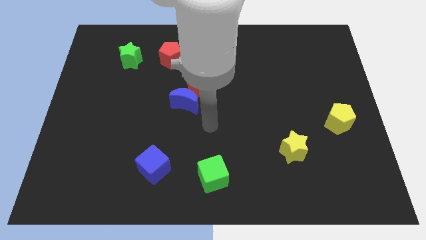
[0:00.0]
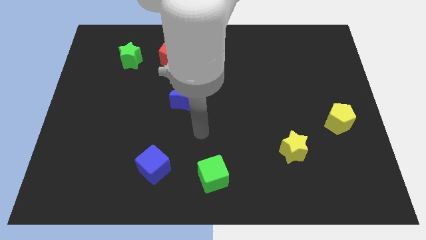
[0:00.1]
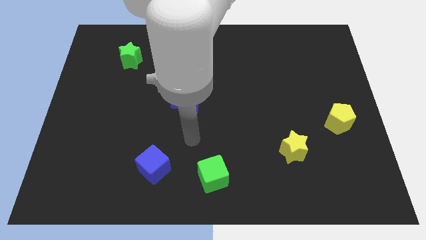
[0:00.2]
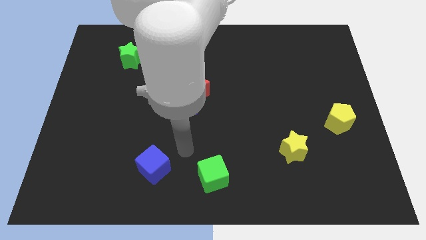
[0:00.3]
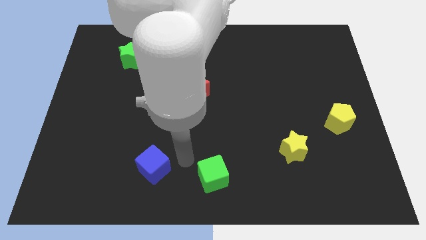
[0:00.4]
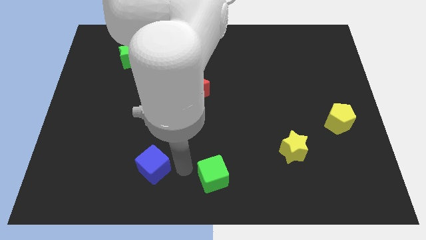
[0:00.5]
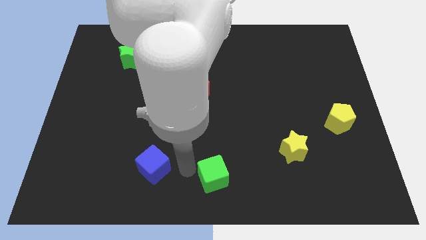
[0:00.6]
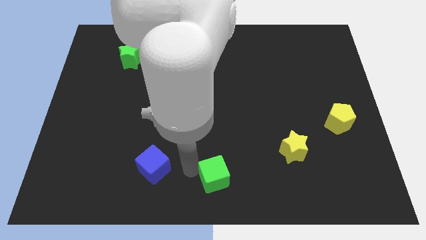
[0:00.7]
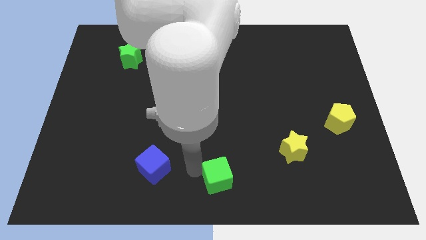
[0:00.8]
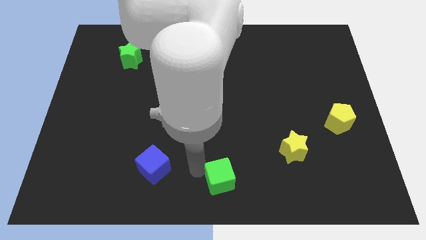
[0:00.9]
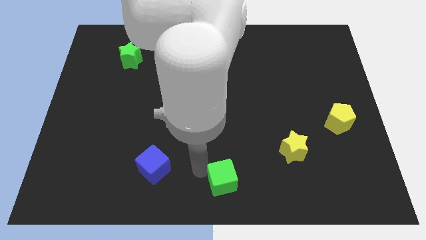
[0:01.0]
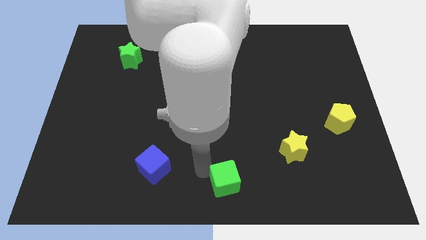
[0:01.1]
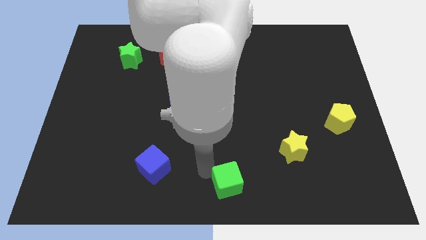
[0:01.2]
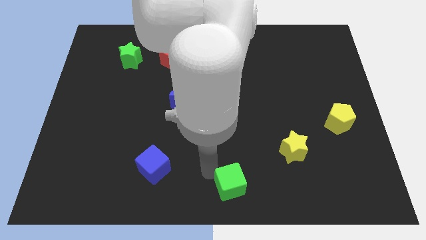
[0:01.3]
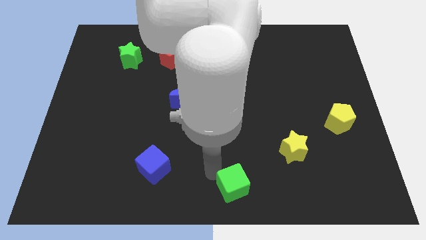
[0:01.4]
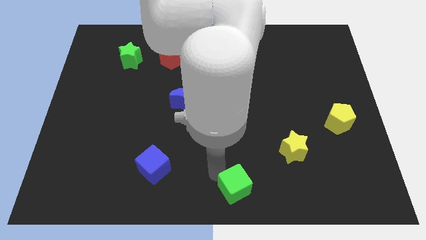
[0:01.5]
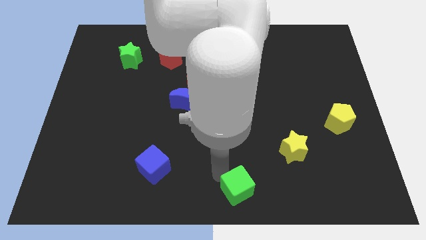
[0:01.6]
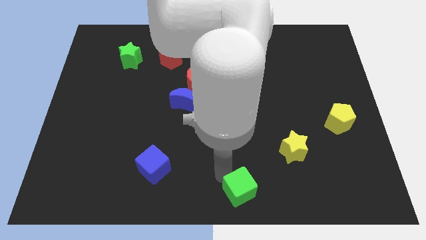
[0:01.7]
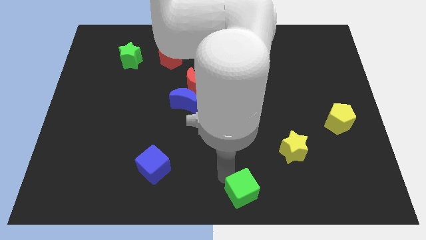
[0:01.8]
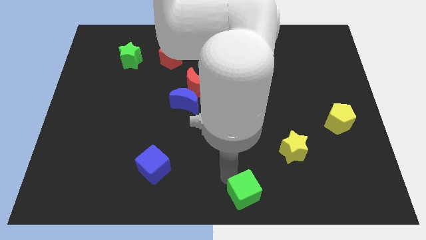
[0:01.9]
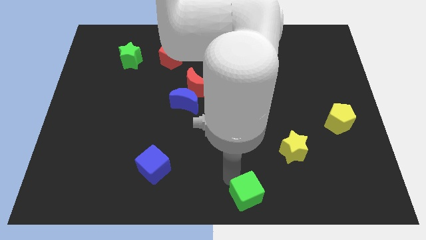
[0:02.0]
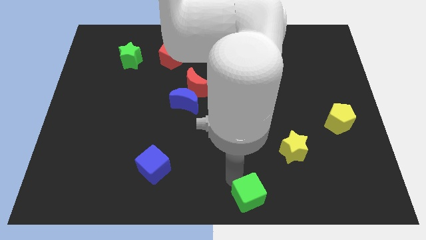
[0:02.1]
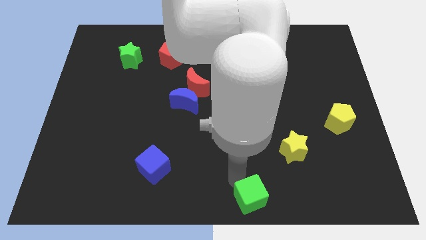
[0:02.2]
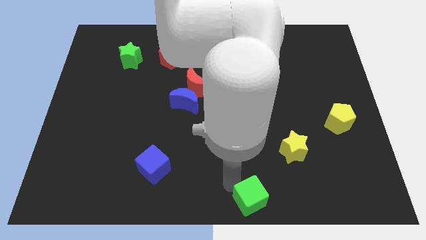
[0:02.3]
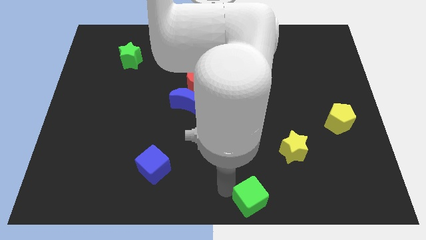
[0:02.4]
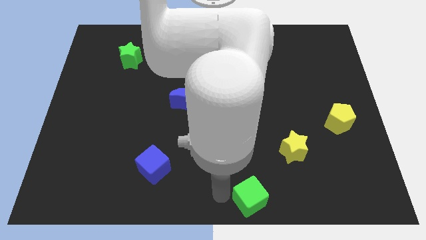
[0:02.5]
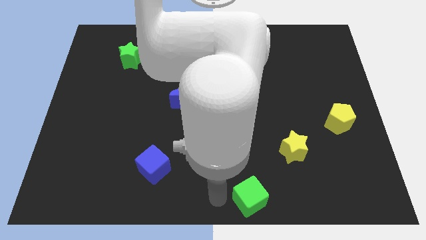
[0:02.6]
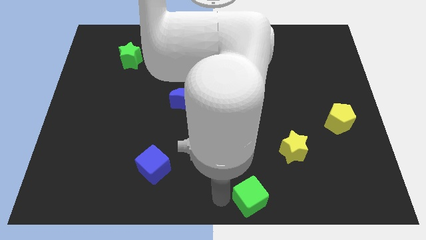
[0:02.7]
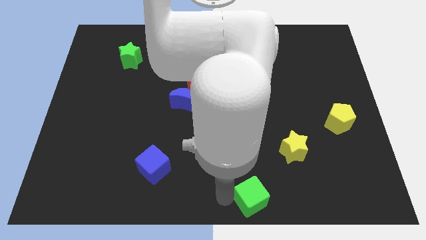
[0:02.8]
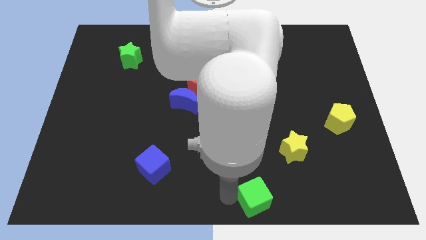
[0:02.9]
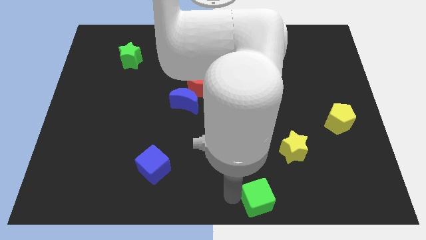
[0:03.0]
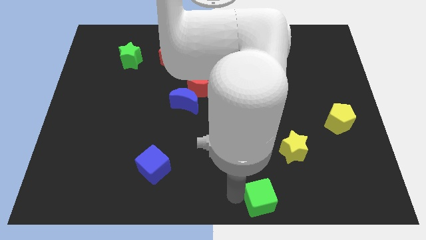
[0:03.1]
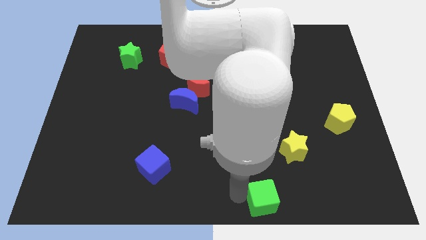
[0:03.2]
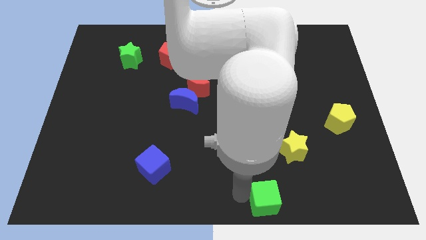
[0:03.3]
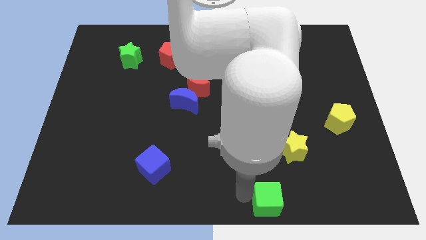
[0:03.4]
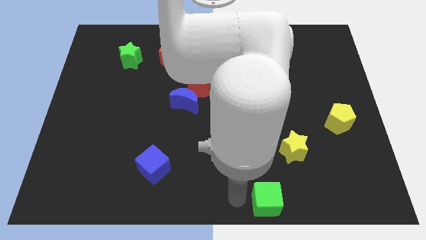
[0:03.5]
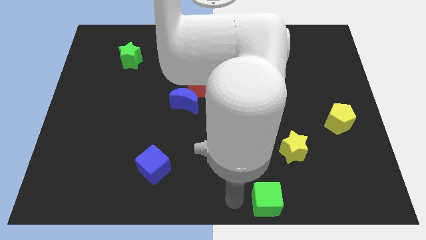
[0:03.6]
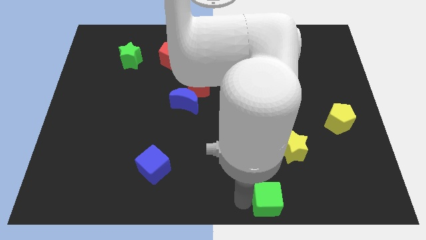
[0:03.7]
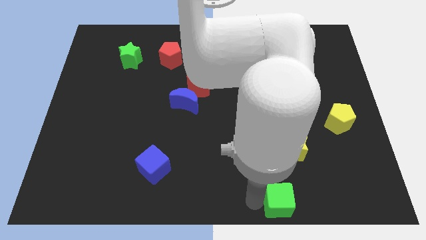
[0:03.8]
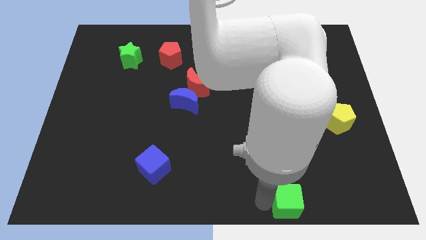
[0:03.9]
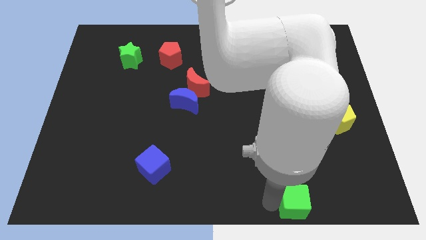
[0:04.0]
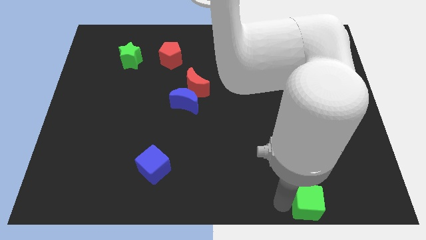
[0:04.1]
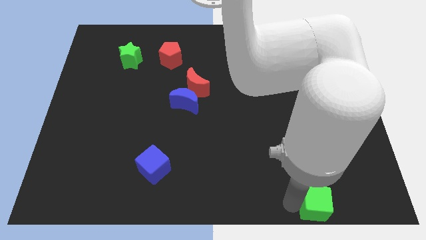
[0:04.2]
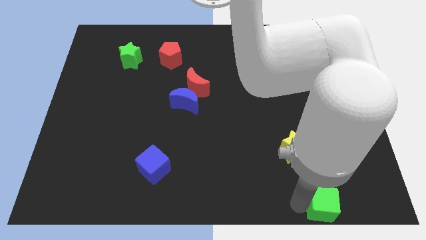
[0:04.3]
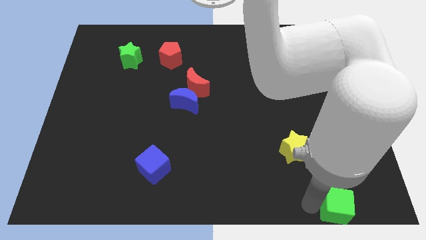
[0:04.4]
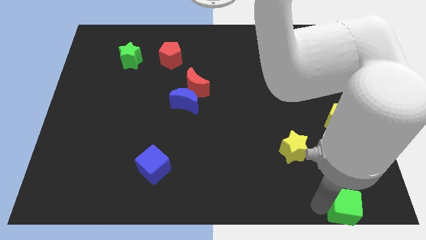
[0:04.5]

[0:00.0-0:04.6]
slide the green cube to the lower right corner

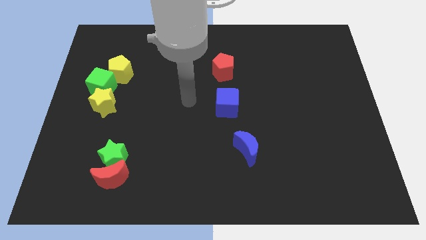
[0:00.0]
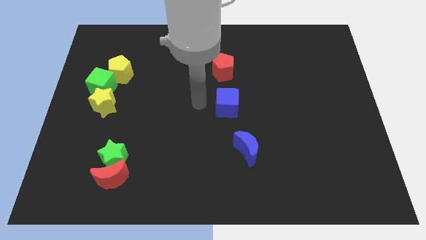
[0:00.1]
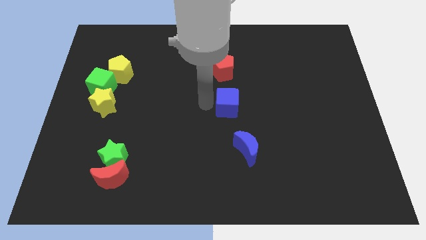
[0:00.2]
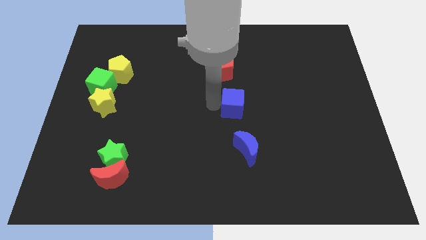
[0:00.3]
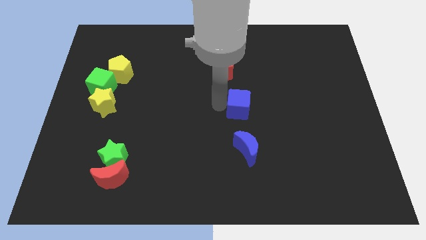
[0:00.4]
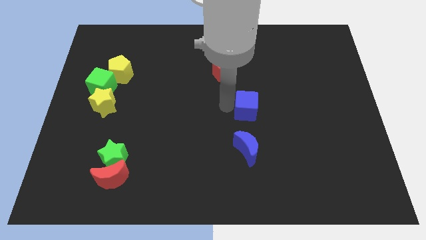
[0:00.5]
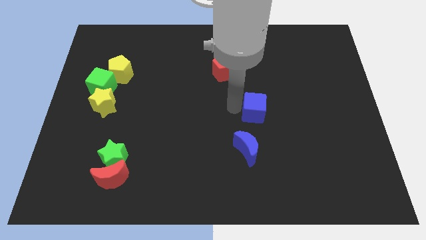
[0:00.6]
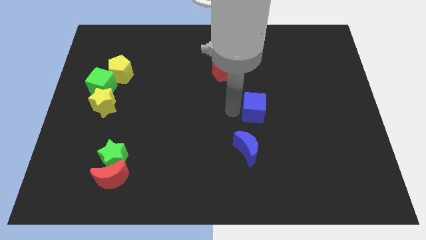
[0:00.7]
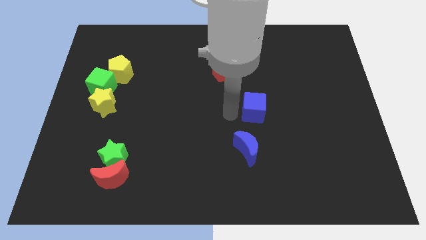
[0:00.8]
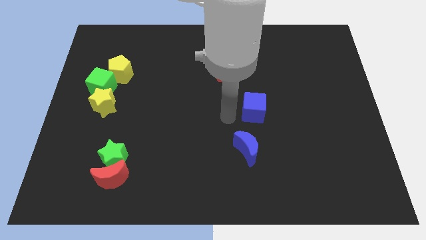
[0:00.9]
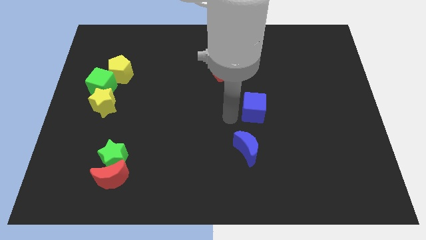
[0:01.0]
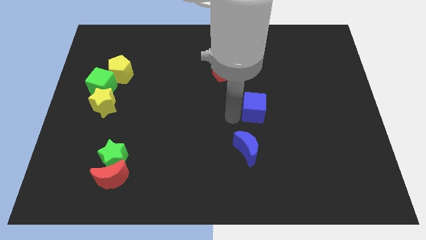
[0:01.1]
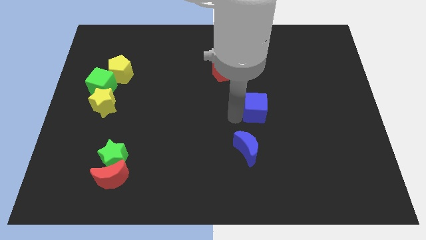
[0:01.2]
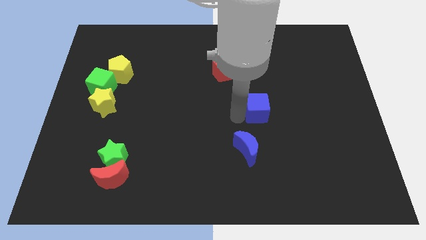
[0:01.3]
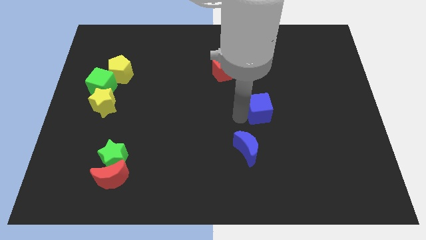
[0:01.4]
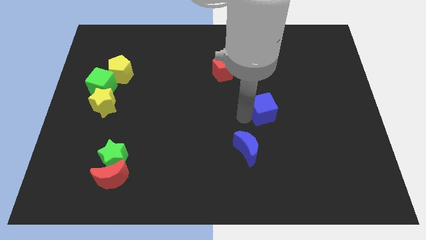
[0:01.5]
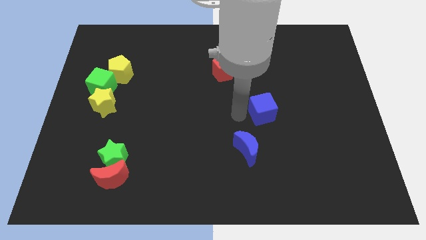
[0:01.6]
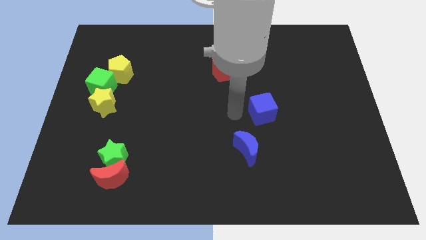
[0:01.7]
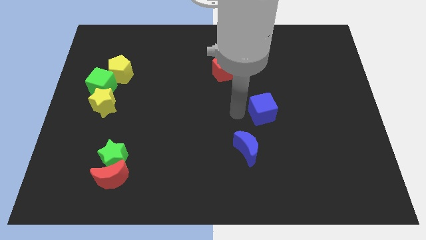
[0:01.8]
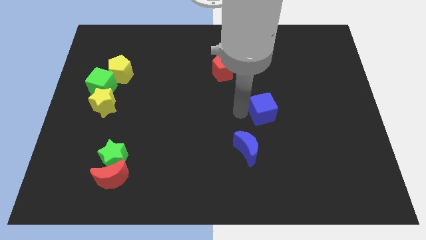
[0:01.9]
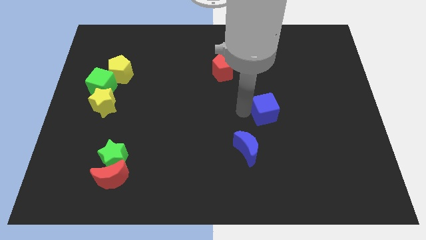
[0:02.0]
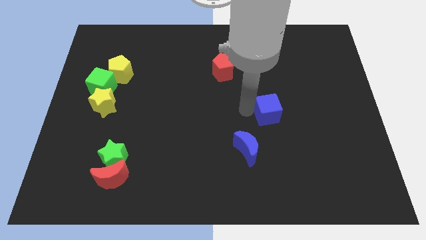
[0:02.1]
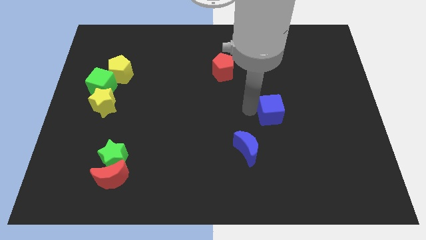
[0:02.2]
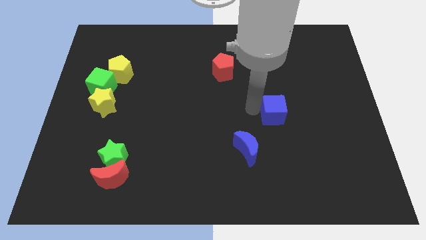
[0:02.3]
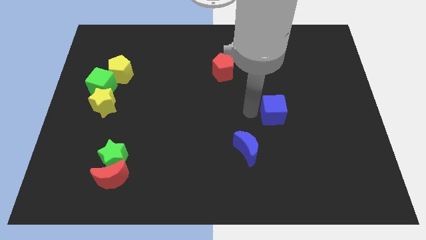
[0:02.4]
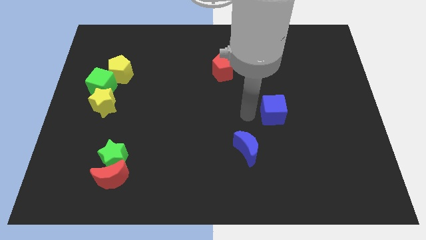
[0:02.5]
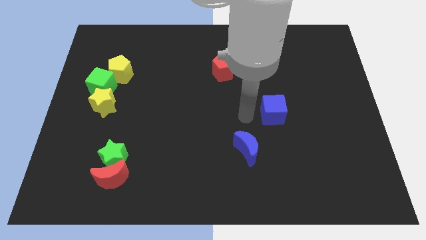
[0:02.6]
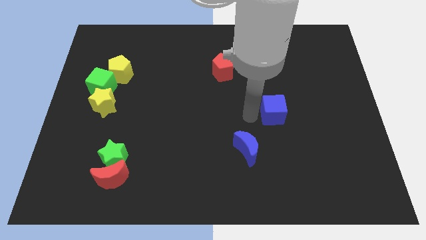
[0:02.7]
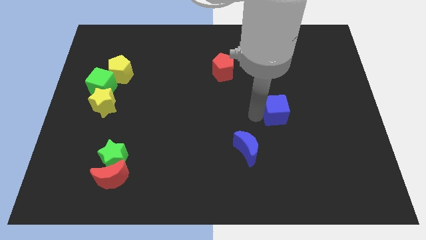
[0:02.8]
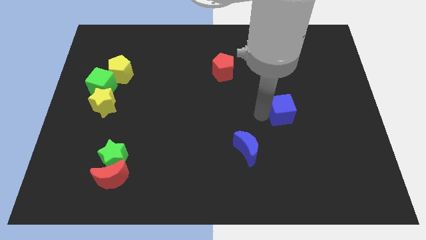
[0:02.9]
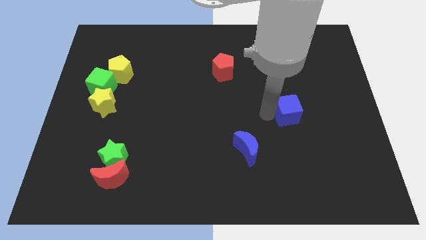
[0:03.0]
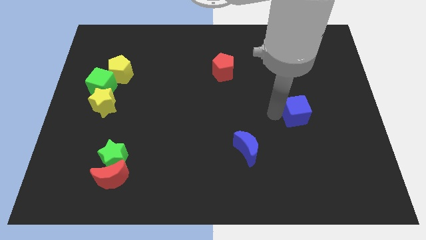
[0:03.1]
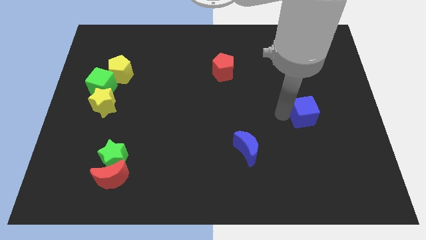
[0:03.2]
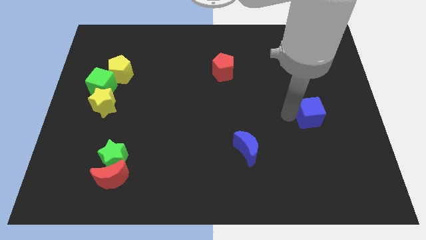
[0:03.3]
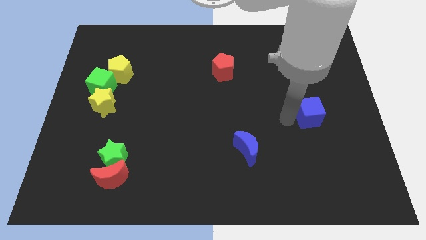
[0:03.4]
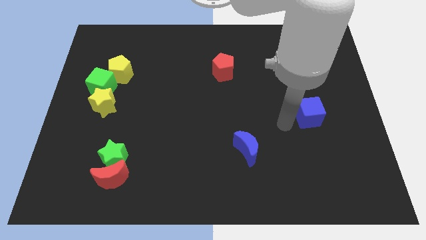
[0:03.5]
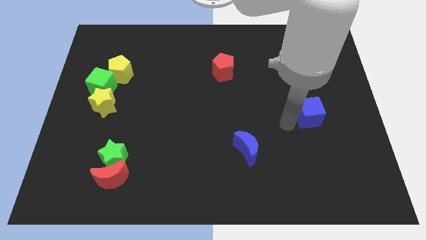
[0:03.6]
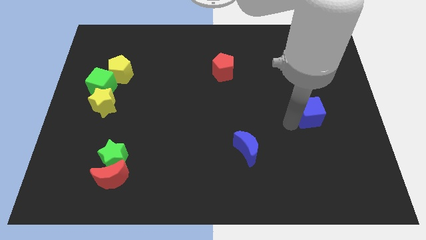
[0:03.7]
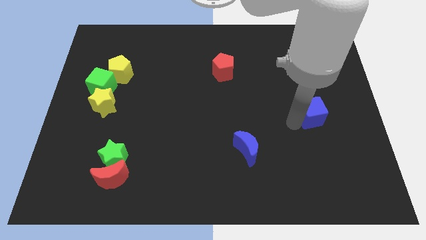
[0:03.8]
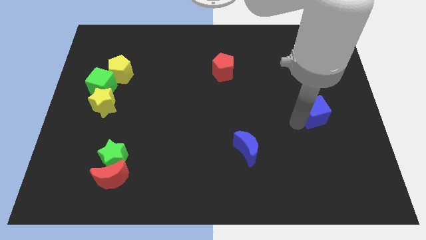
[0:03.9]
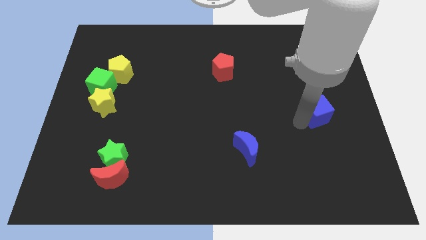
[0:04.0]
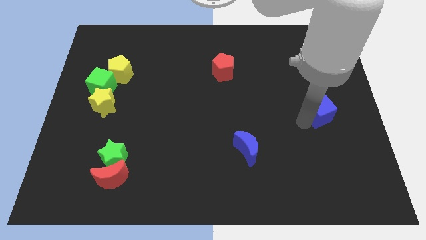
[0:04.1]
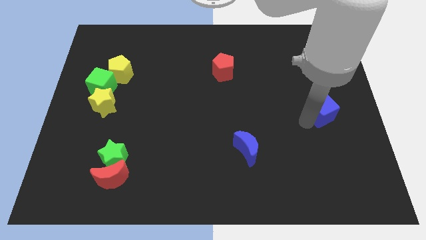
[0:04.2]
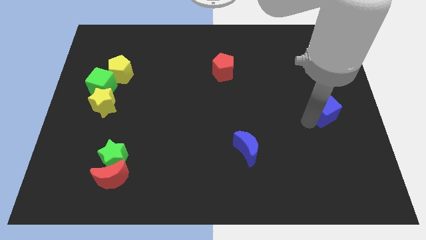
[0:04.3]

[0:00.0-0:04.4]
move the blue cube to the center right
